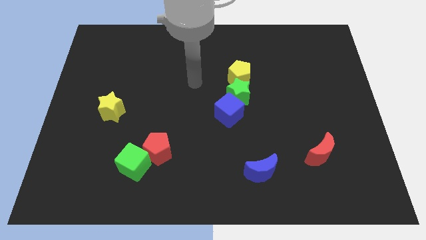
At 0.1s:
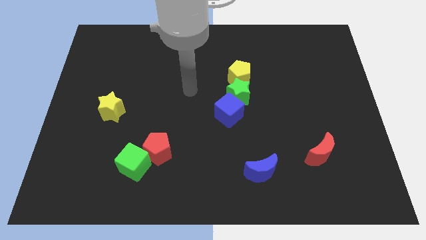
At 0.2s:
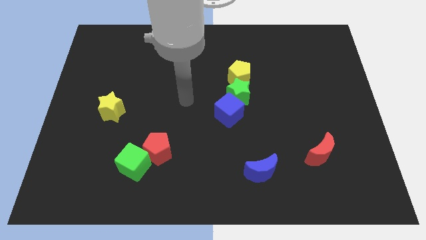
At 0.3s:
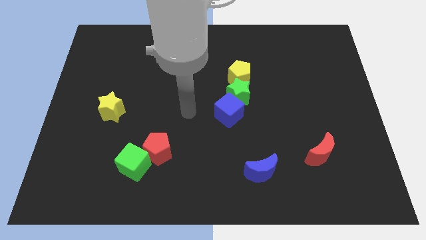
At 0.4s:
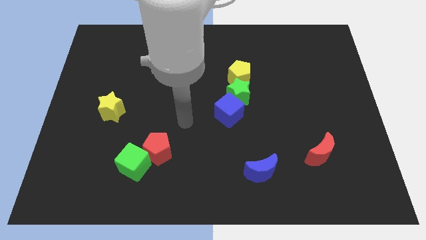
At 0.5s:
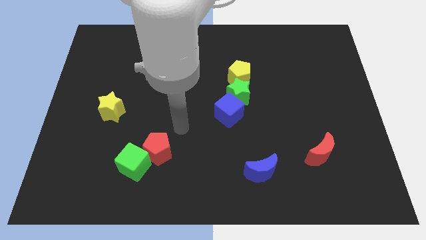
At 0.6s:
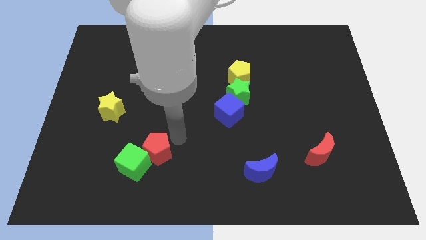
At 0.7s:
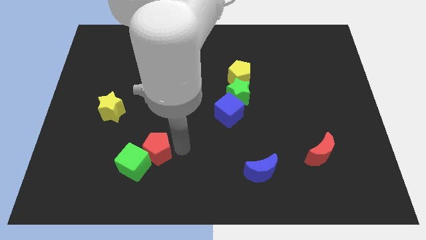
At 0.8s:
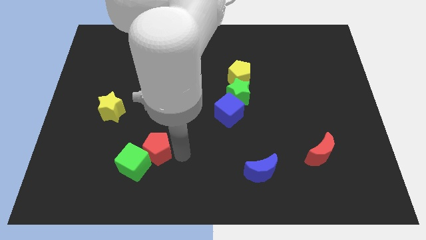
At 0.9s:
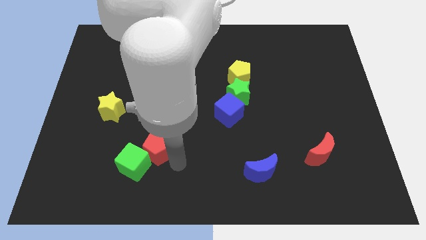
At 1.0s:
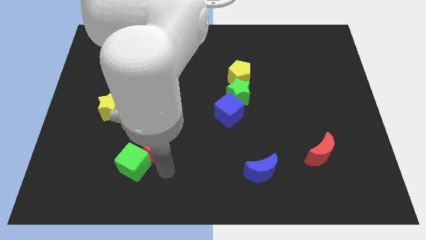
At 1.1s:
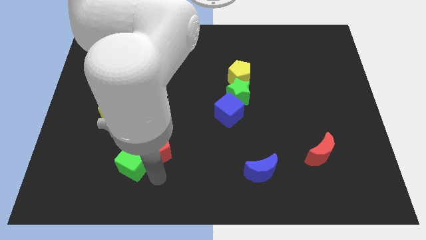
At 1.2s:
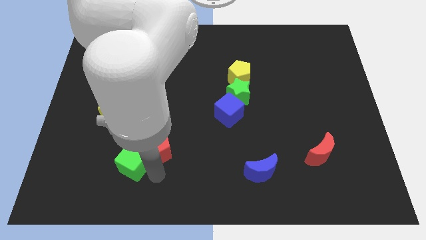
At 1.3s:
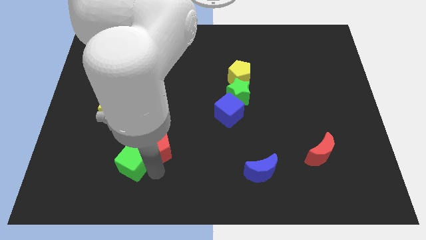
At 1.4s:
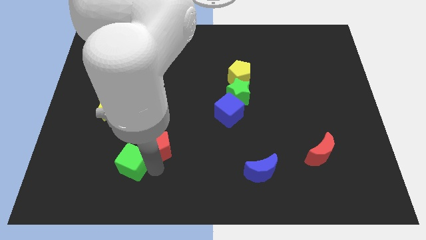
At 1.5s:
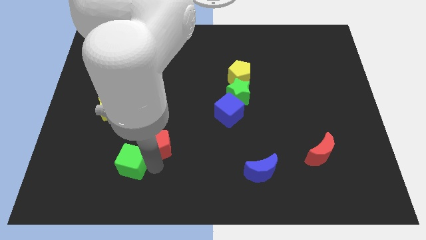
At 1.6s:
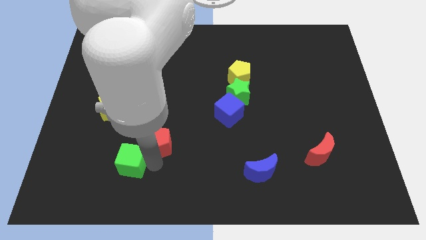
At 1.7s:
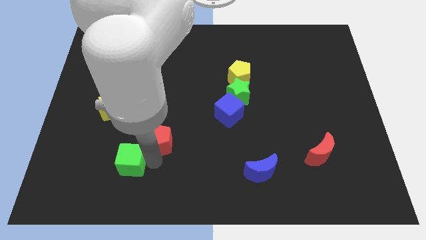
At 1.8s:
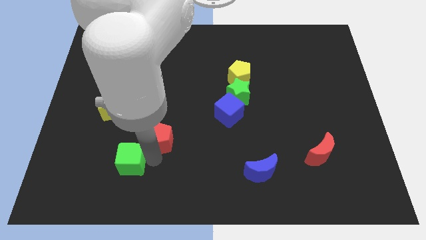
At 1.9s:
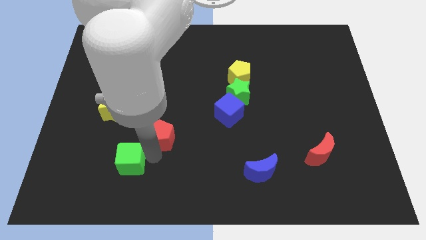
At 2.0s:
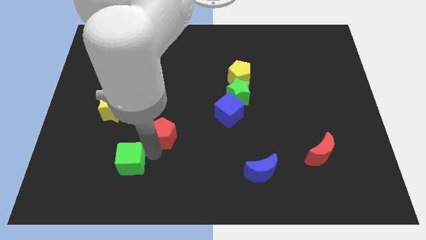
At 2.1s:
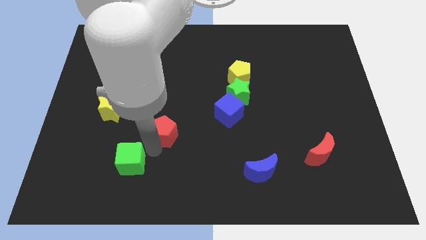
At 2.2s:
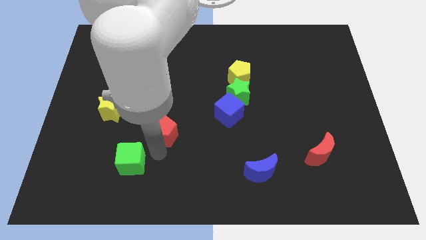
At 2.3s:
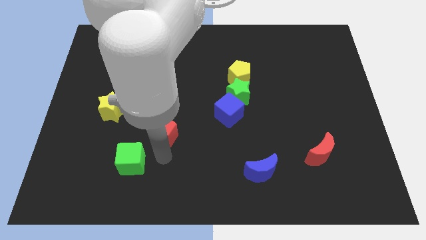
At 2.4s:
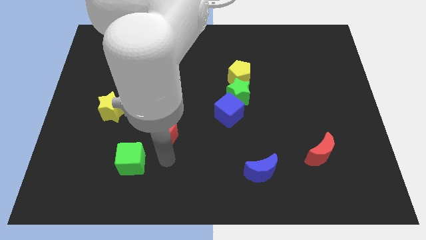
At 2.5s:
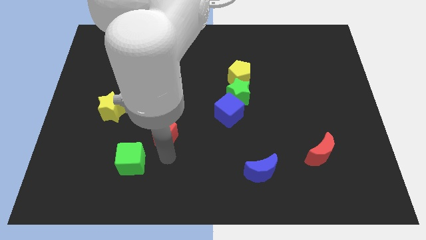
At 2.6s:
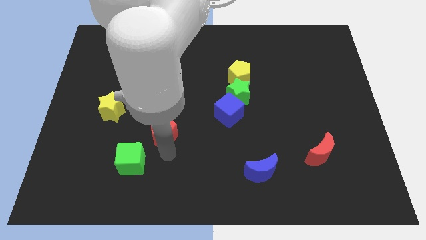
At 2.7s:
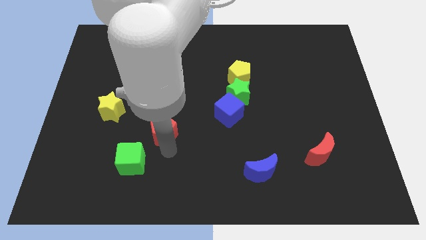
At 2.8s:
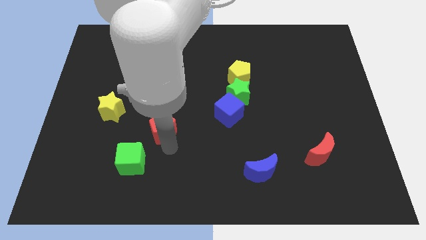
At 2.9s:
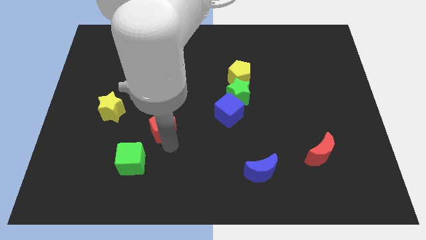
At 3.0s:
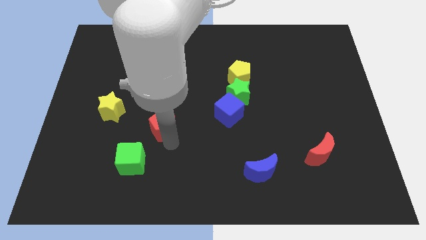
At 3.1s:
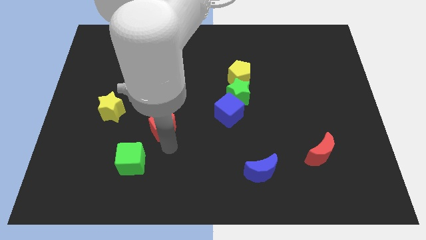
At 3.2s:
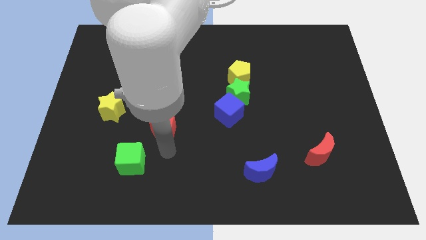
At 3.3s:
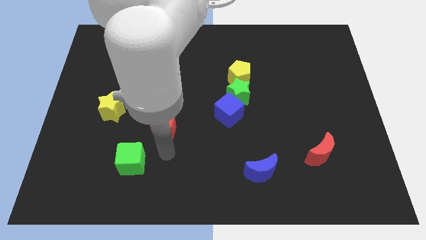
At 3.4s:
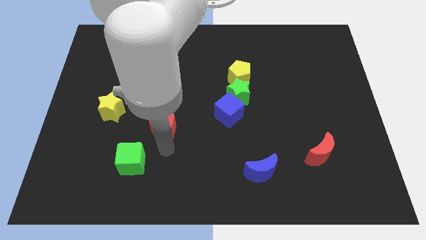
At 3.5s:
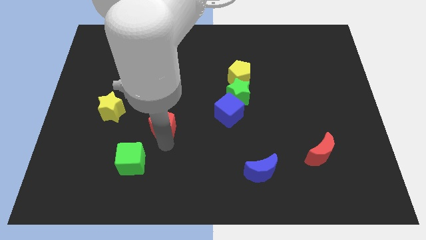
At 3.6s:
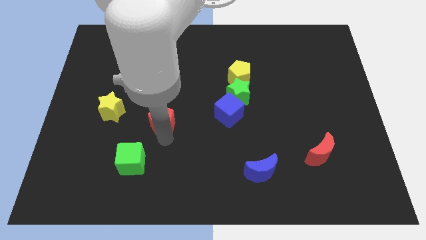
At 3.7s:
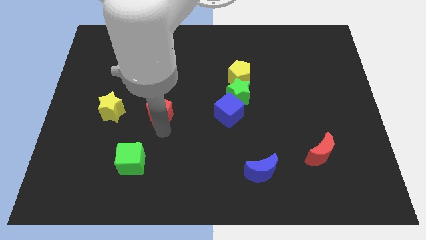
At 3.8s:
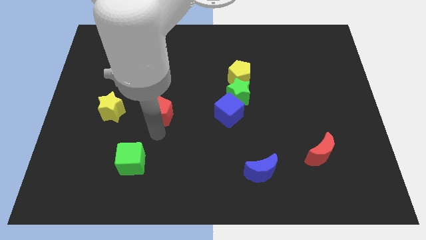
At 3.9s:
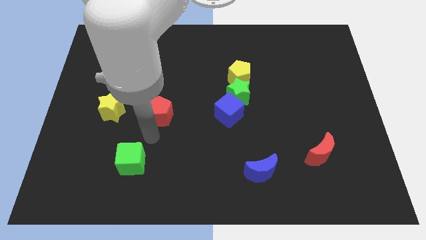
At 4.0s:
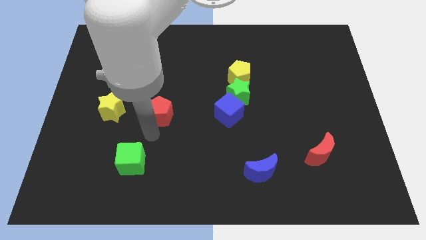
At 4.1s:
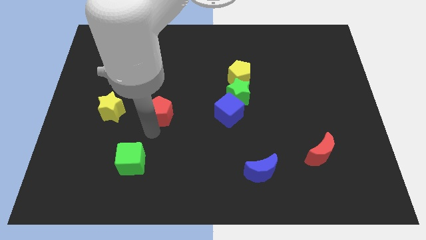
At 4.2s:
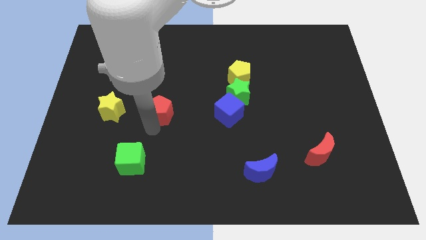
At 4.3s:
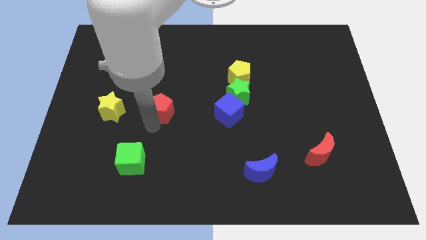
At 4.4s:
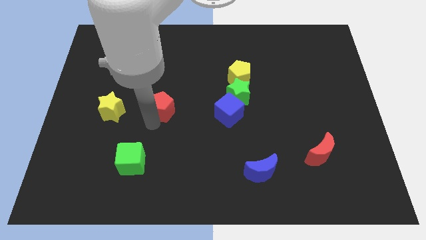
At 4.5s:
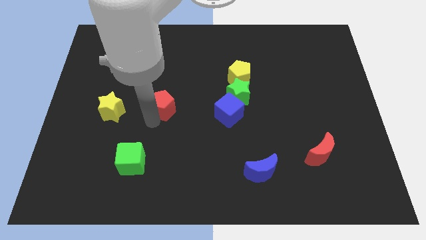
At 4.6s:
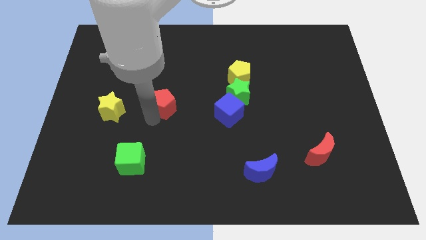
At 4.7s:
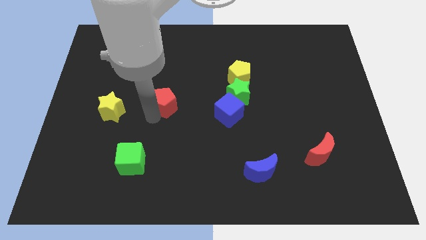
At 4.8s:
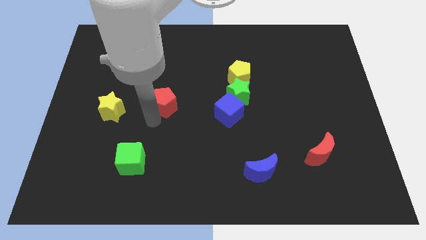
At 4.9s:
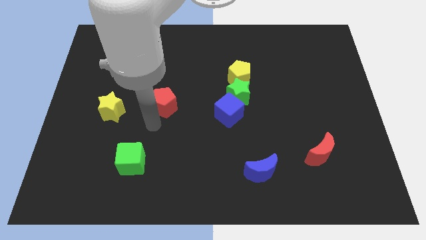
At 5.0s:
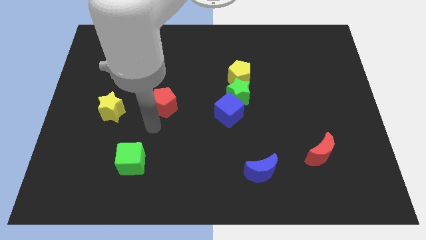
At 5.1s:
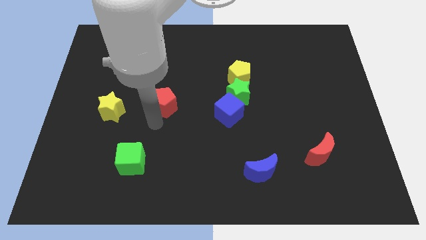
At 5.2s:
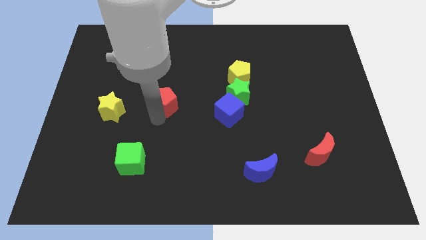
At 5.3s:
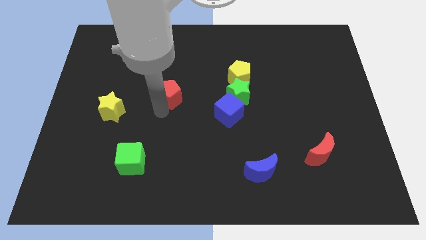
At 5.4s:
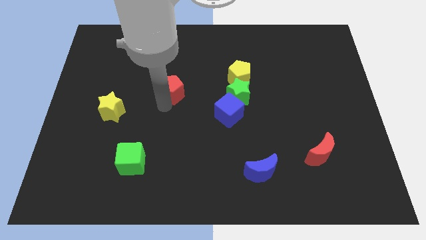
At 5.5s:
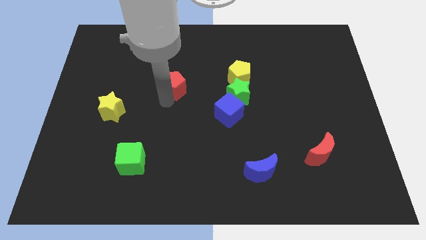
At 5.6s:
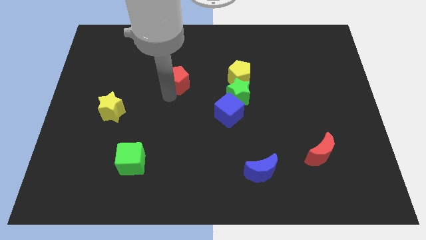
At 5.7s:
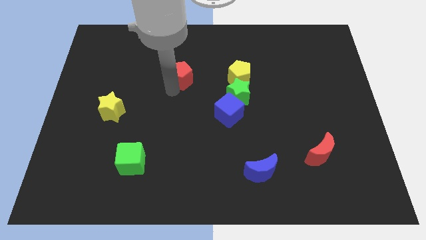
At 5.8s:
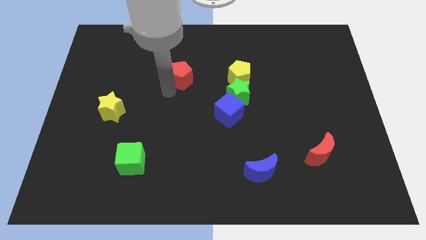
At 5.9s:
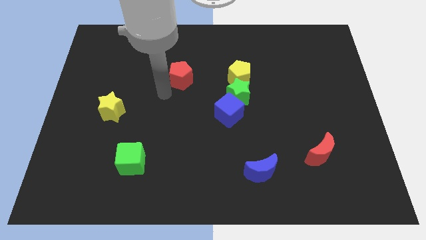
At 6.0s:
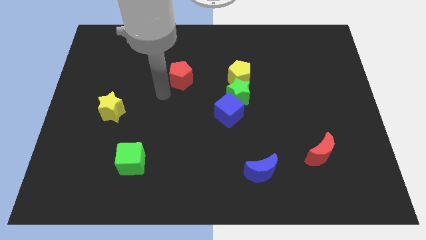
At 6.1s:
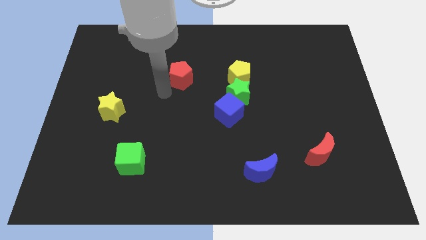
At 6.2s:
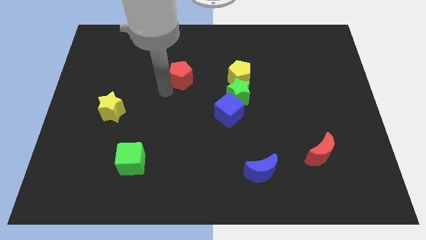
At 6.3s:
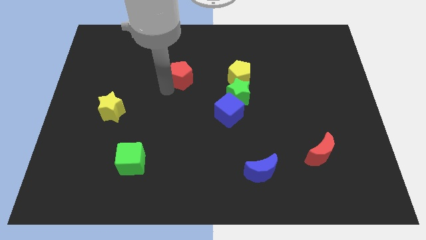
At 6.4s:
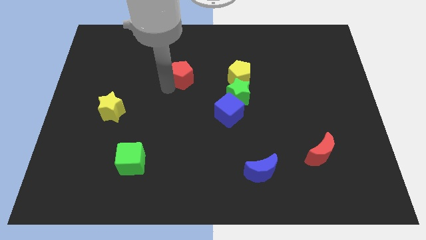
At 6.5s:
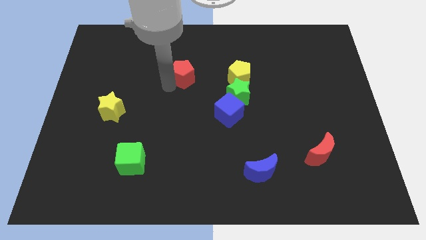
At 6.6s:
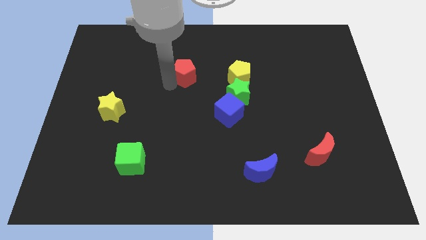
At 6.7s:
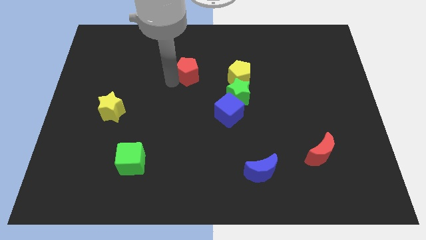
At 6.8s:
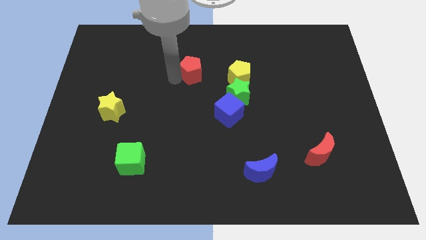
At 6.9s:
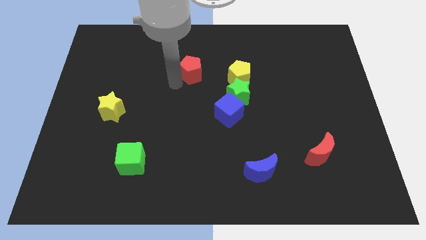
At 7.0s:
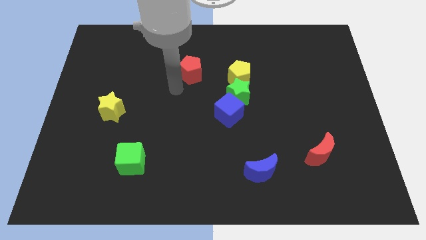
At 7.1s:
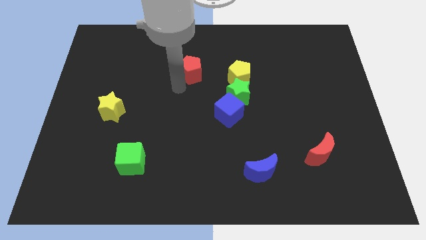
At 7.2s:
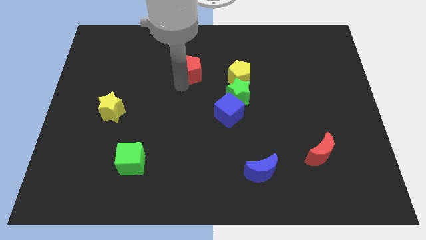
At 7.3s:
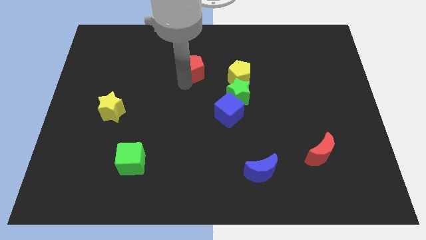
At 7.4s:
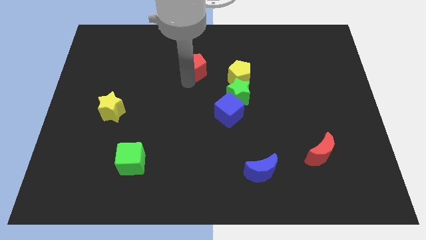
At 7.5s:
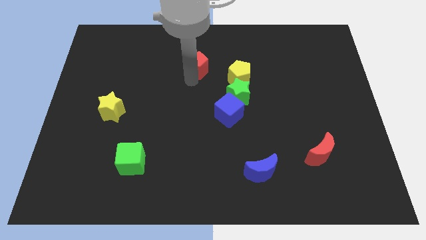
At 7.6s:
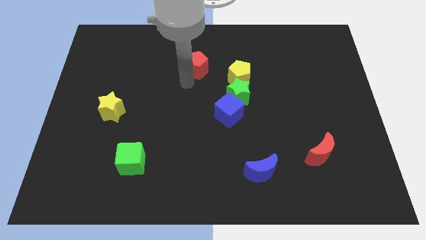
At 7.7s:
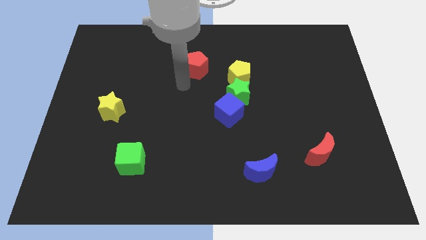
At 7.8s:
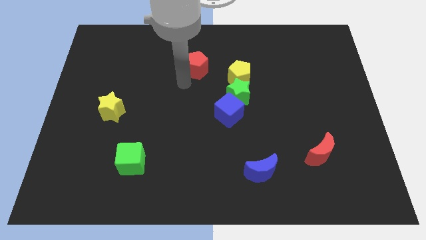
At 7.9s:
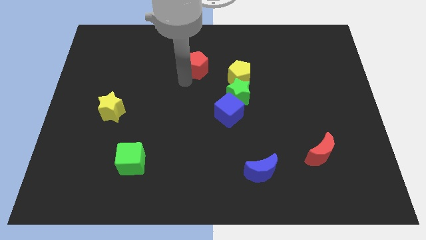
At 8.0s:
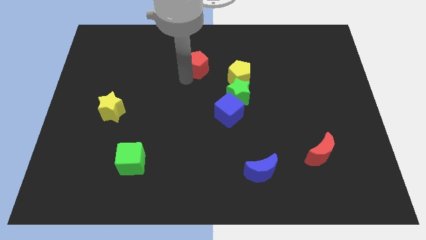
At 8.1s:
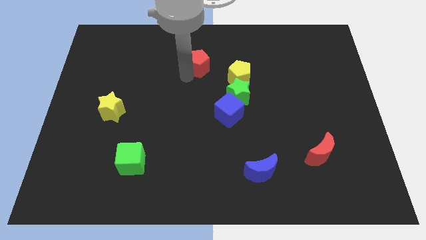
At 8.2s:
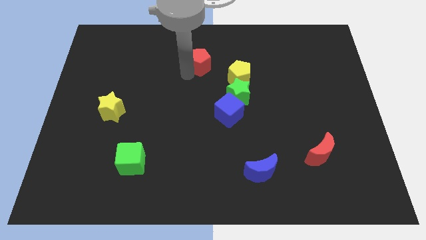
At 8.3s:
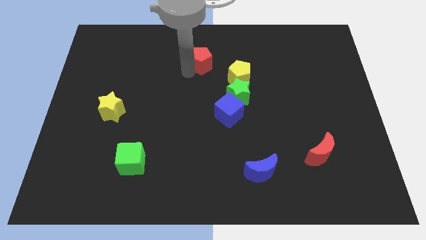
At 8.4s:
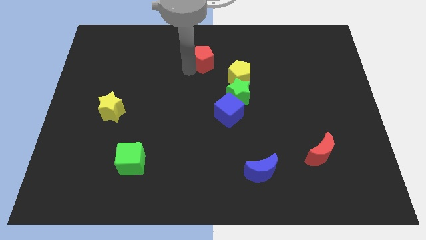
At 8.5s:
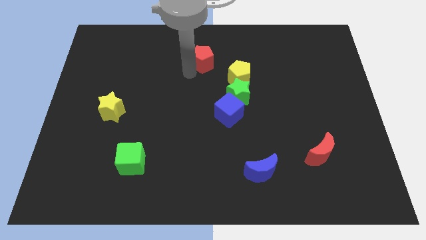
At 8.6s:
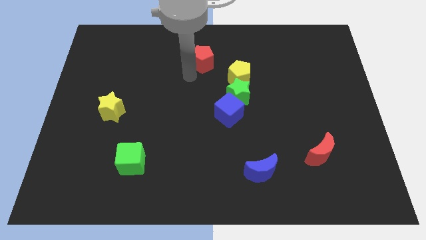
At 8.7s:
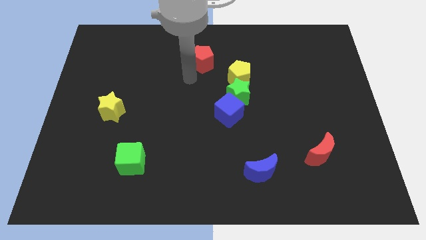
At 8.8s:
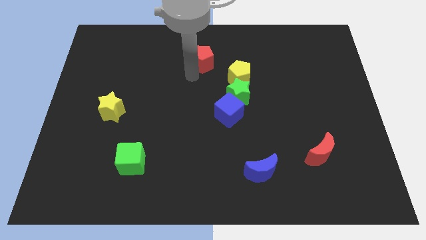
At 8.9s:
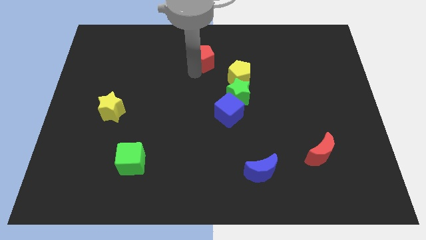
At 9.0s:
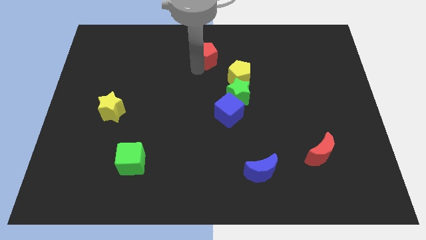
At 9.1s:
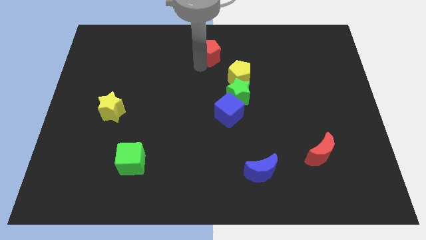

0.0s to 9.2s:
put the red pentagon to the top side
